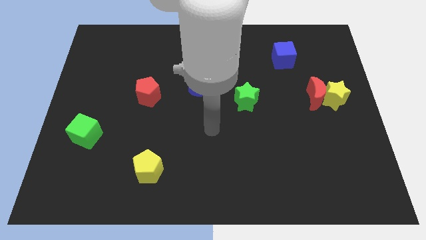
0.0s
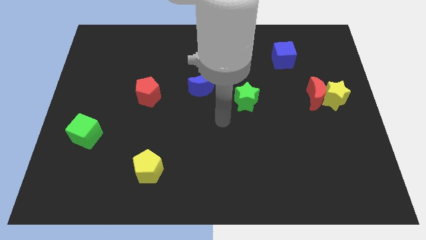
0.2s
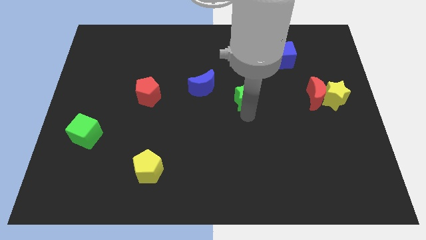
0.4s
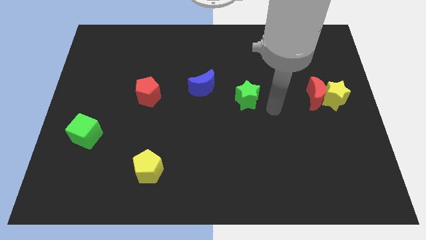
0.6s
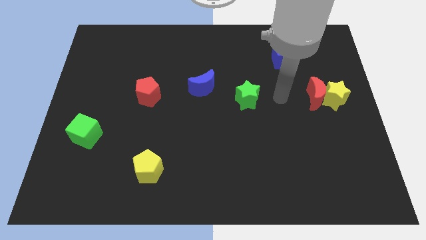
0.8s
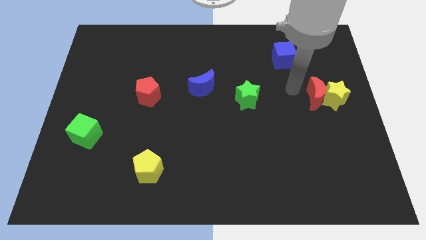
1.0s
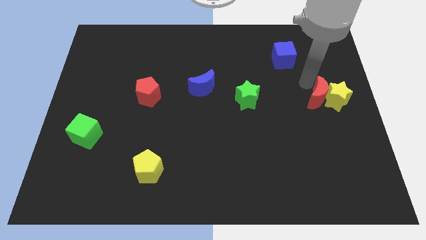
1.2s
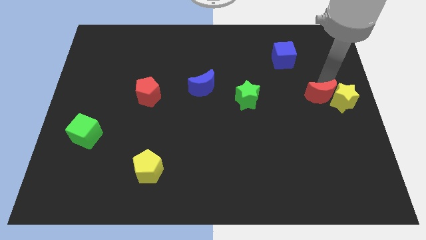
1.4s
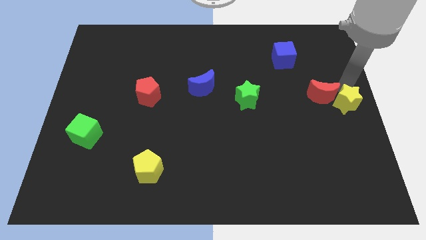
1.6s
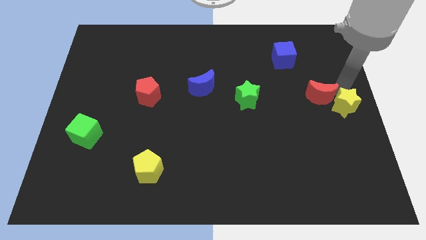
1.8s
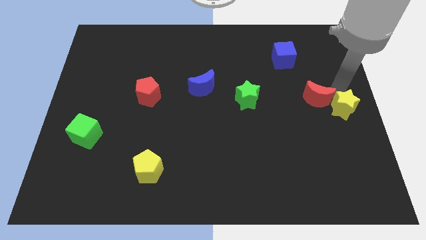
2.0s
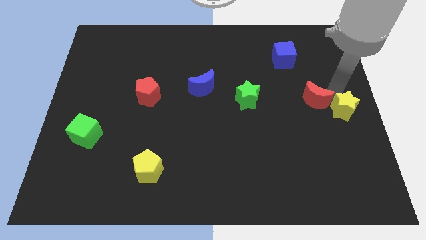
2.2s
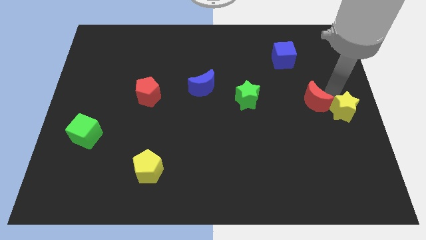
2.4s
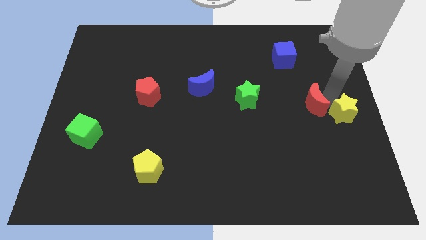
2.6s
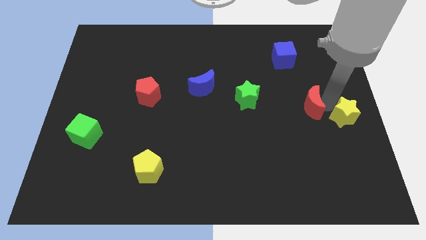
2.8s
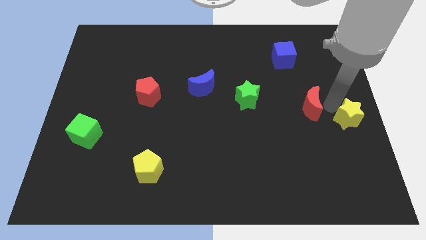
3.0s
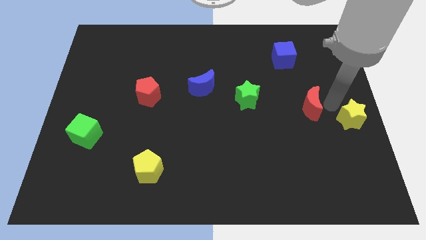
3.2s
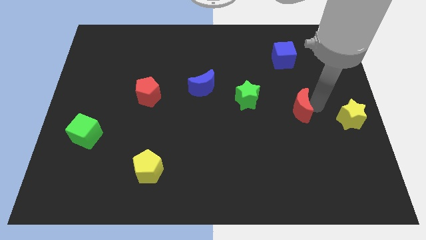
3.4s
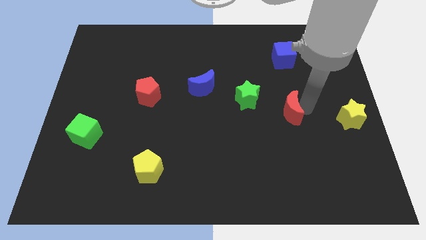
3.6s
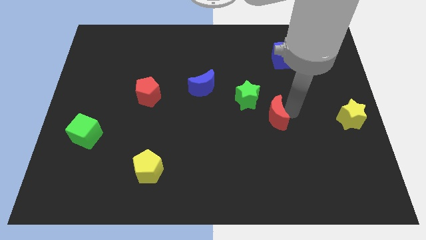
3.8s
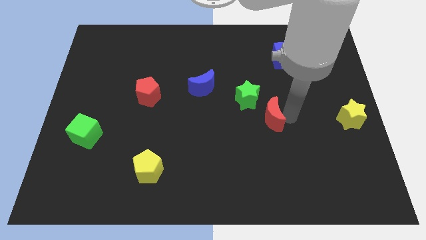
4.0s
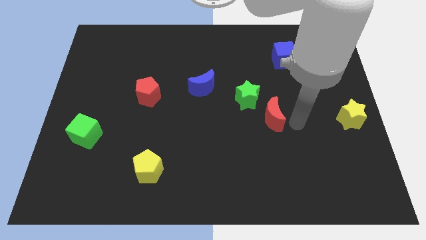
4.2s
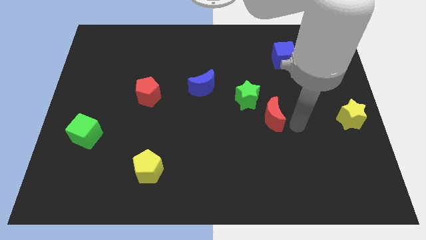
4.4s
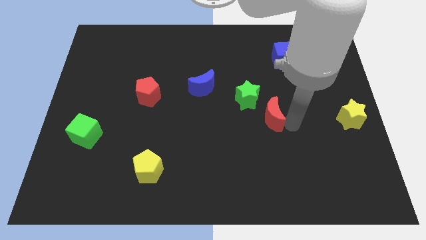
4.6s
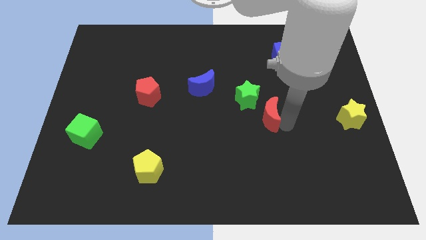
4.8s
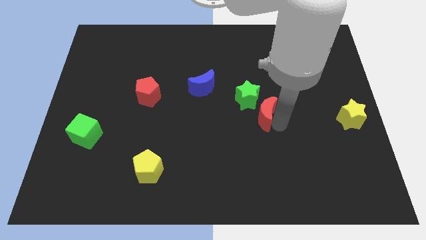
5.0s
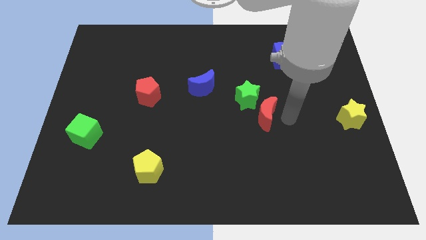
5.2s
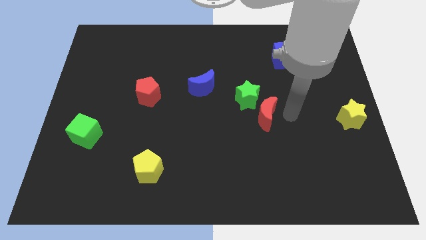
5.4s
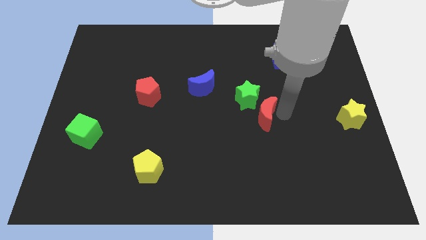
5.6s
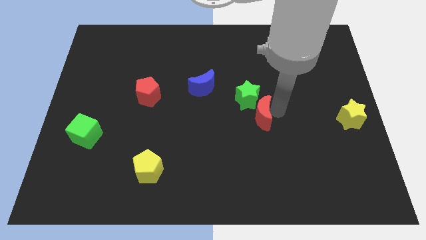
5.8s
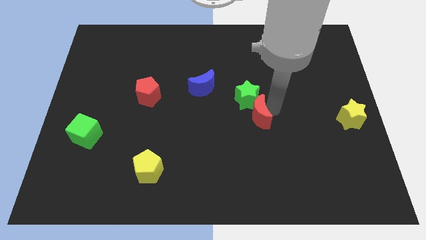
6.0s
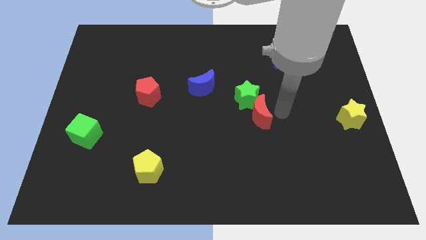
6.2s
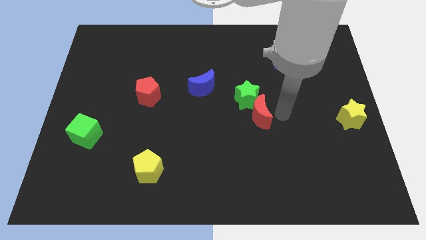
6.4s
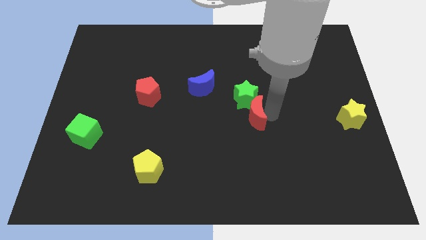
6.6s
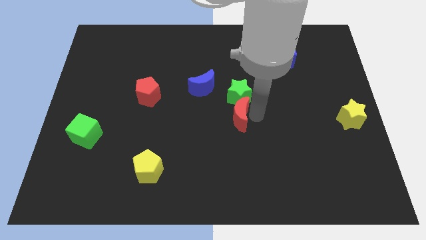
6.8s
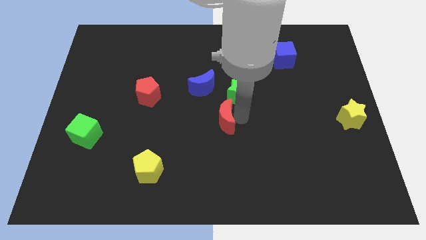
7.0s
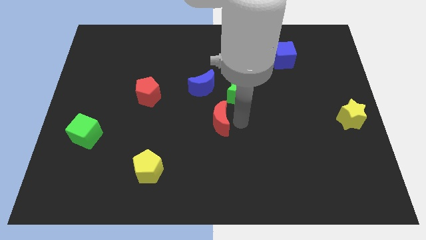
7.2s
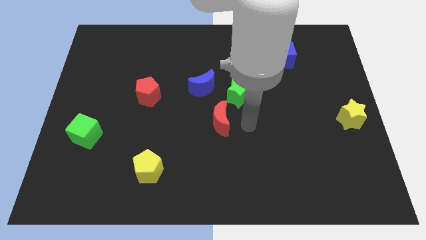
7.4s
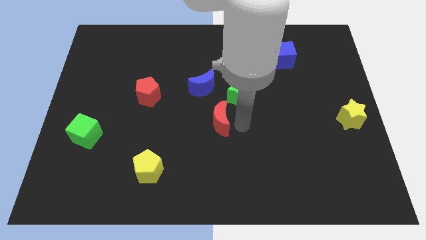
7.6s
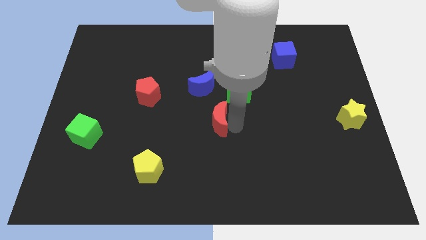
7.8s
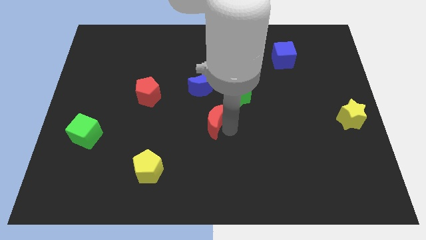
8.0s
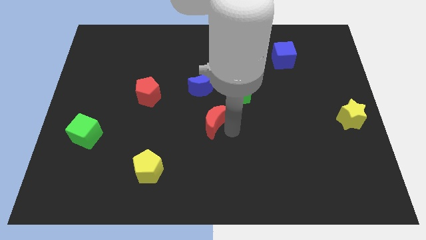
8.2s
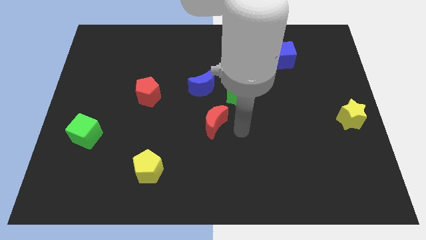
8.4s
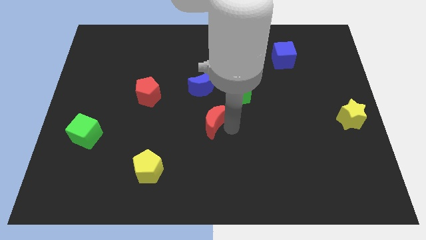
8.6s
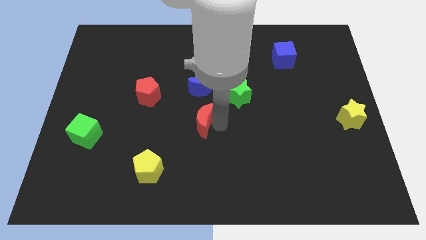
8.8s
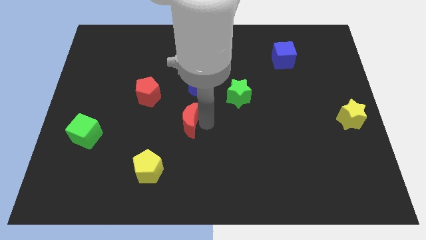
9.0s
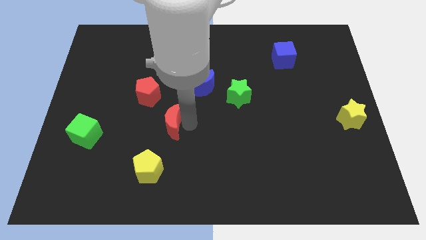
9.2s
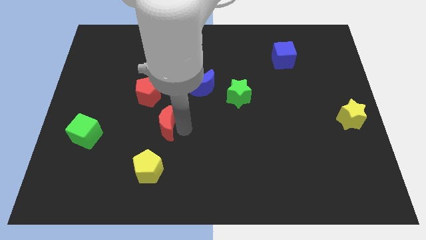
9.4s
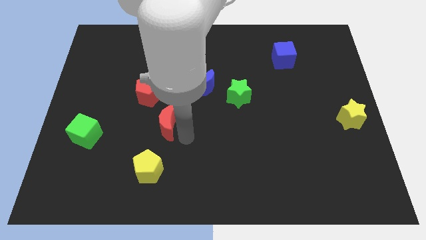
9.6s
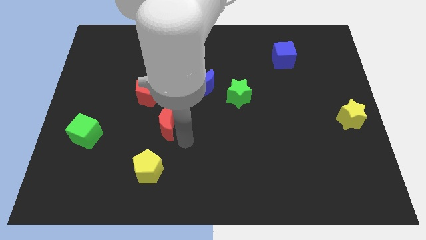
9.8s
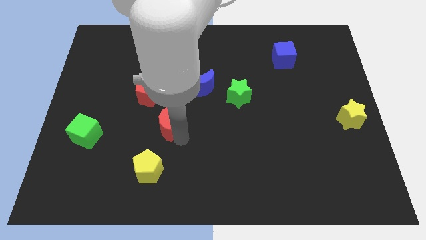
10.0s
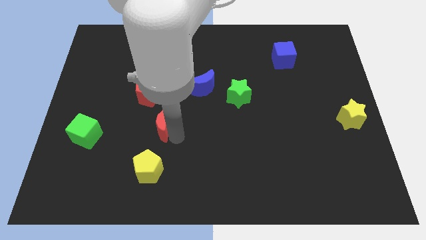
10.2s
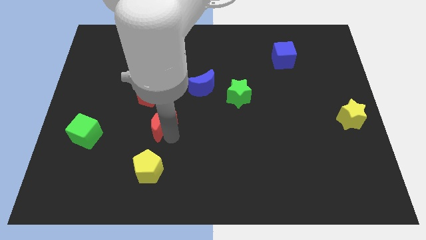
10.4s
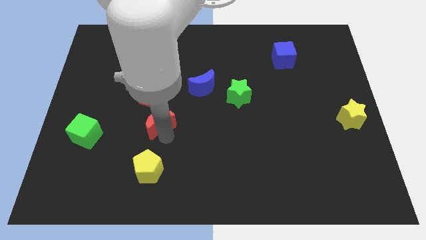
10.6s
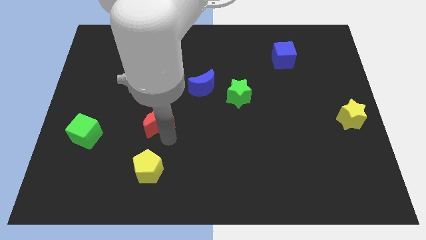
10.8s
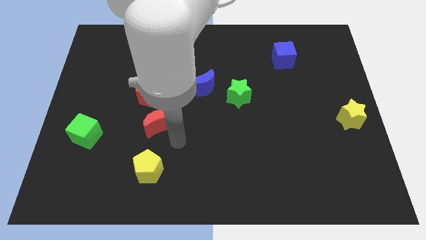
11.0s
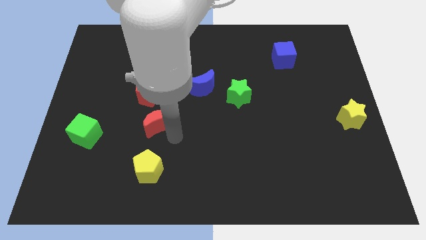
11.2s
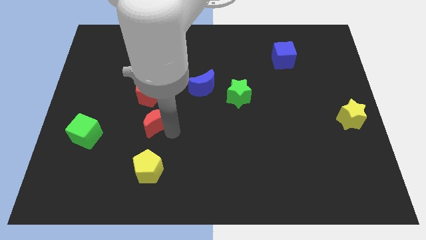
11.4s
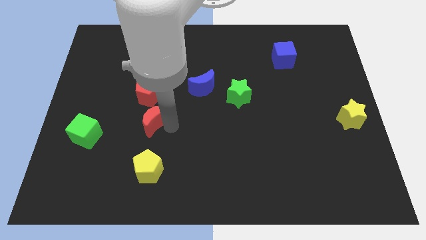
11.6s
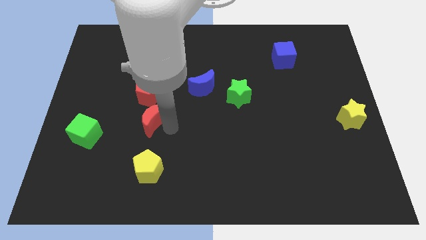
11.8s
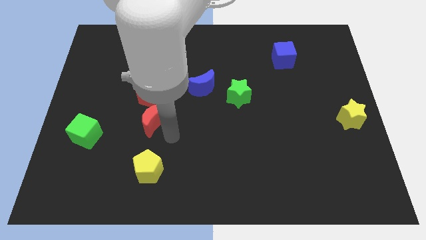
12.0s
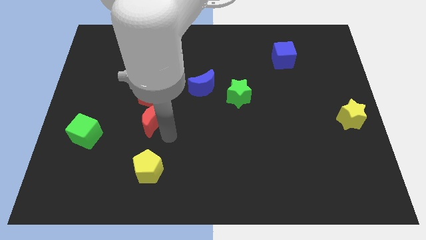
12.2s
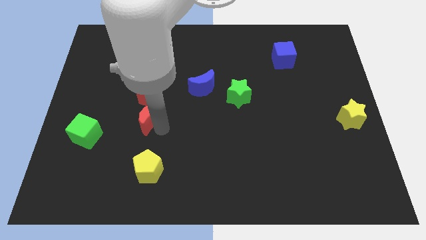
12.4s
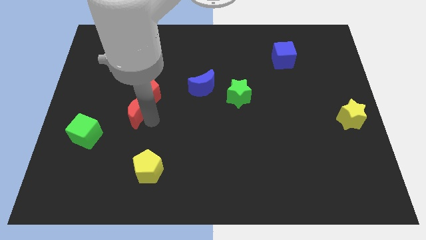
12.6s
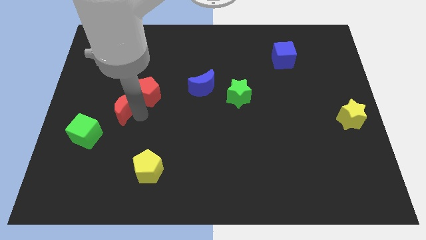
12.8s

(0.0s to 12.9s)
push the red moon just left of the red pentagon

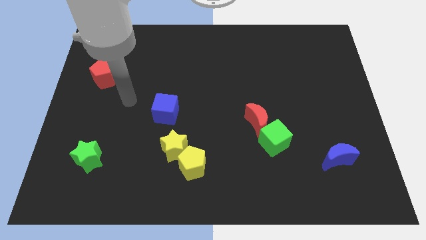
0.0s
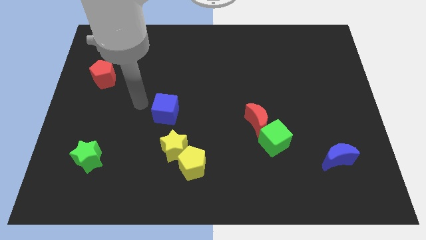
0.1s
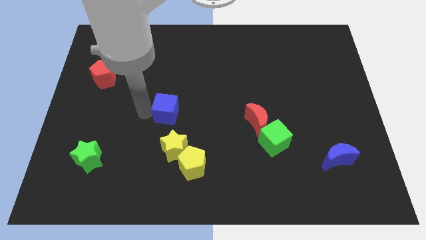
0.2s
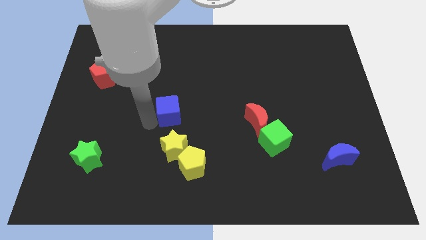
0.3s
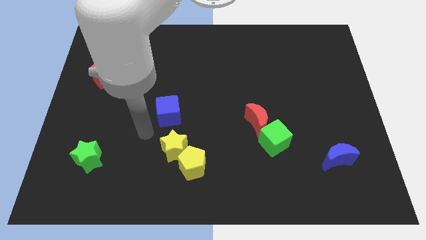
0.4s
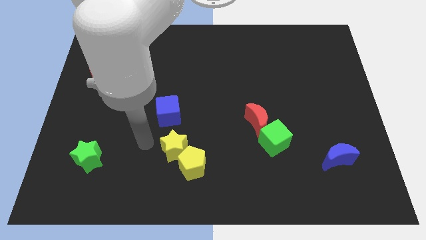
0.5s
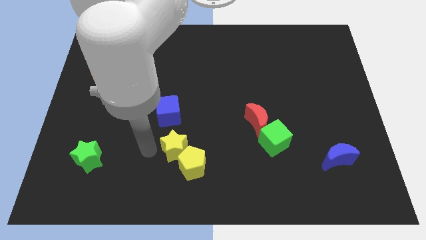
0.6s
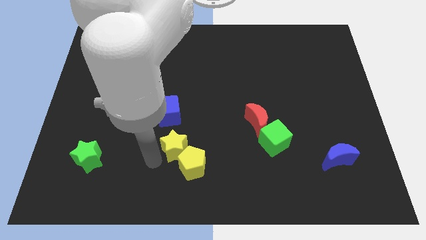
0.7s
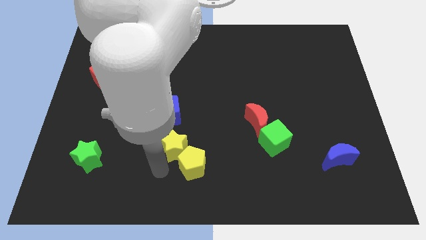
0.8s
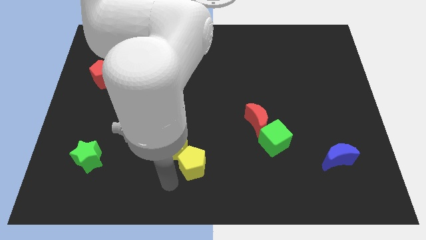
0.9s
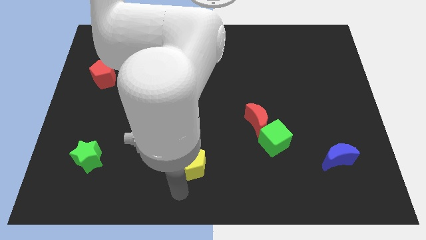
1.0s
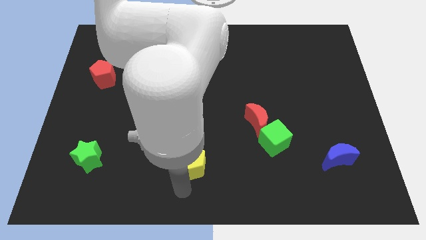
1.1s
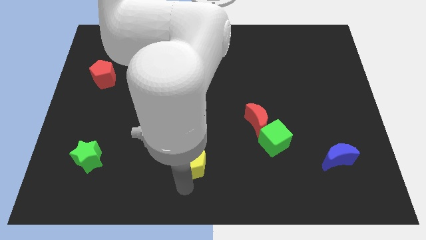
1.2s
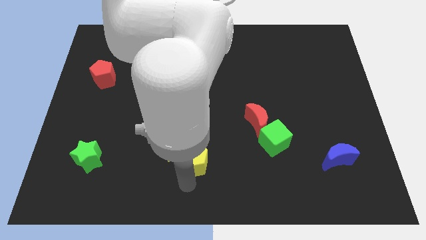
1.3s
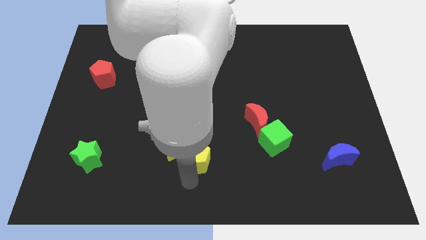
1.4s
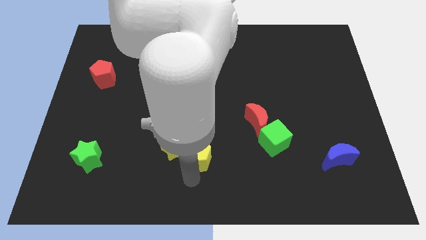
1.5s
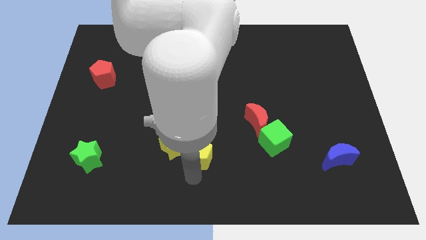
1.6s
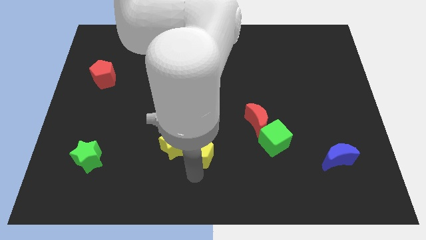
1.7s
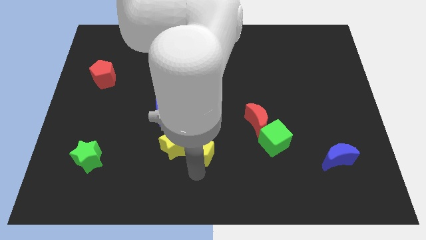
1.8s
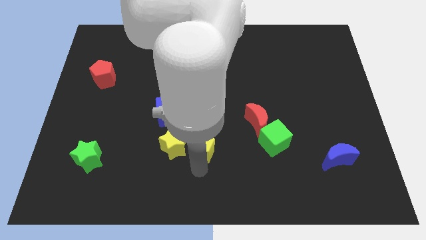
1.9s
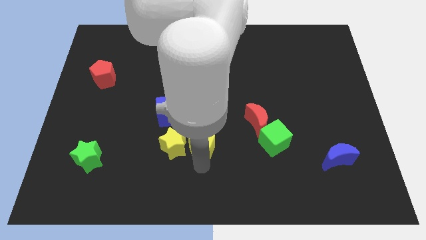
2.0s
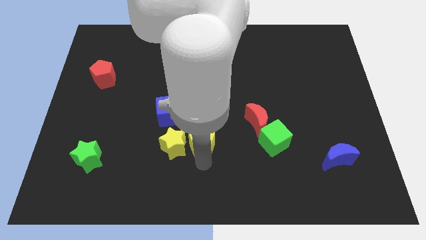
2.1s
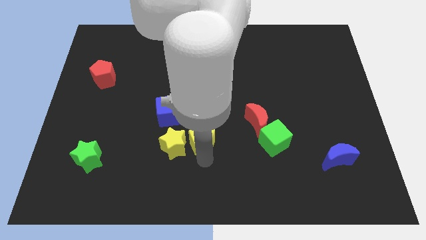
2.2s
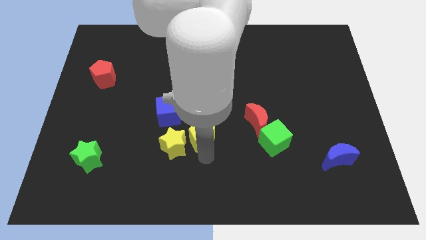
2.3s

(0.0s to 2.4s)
slide the yellow pentagon just left of the red moon
